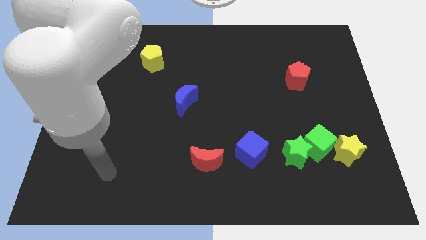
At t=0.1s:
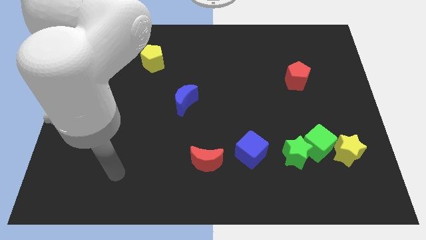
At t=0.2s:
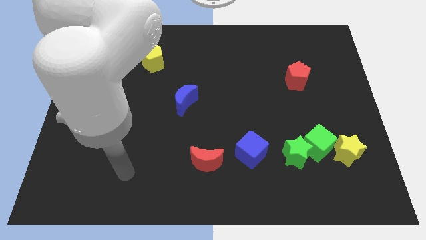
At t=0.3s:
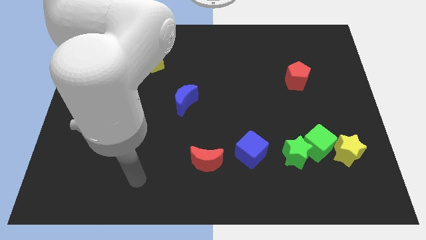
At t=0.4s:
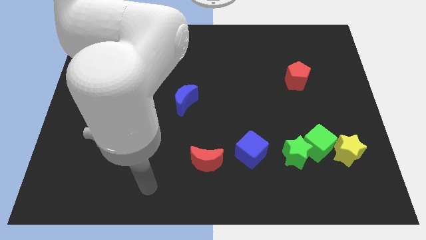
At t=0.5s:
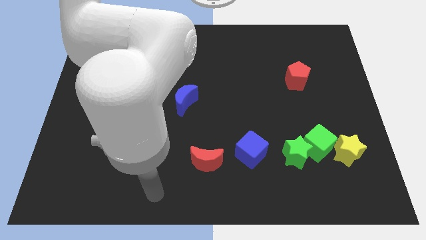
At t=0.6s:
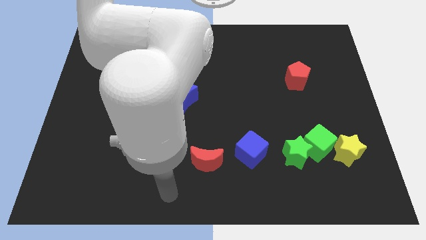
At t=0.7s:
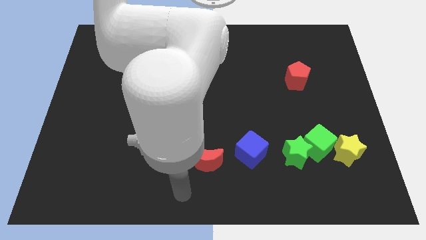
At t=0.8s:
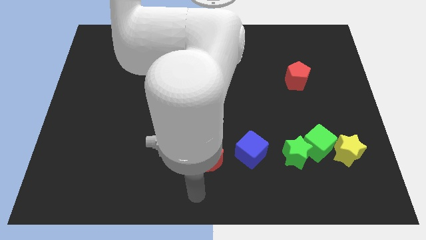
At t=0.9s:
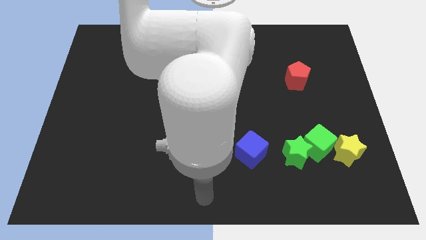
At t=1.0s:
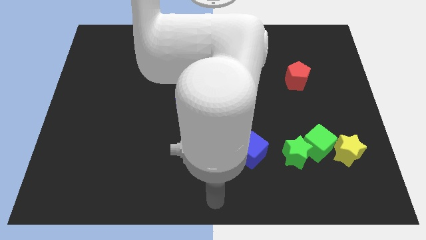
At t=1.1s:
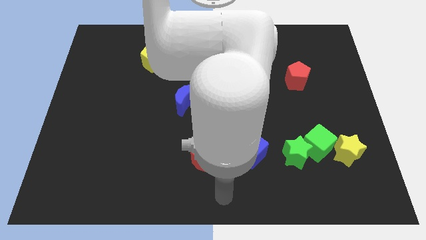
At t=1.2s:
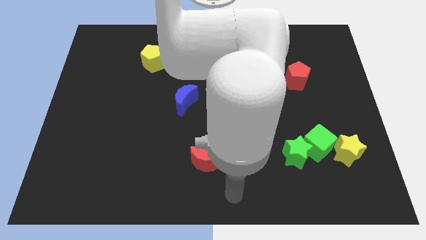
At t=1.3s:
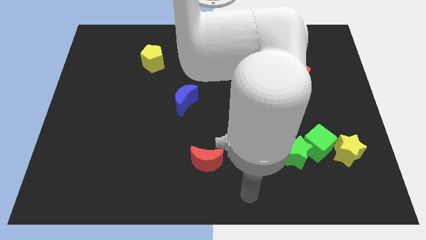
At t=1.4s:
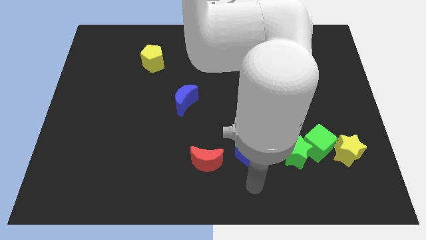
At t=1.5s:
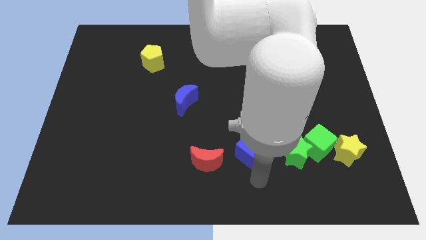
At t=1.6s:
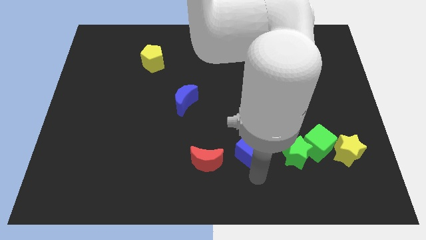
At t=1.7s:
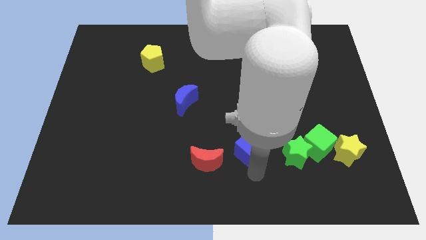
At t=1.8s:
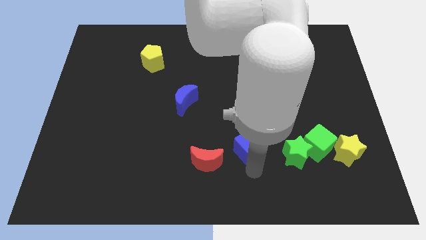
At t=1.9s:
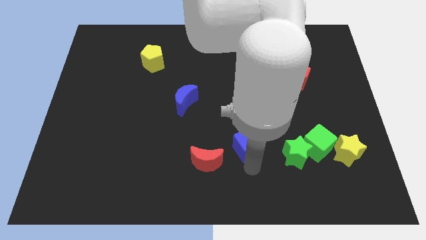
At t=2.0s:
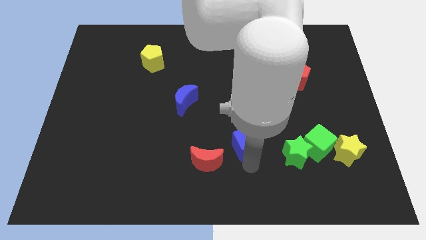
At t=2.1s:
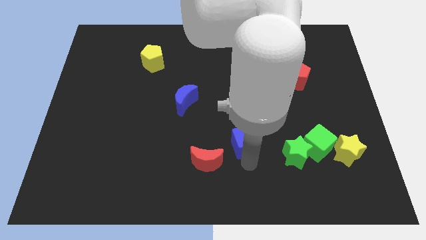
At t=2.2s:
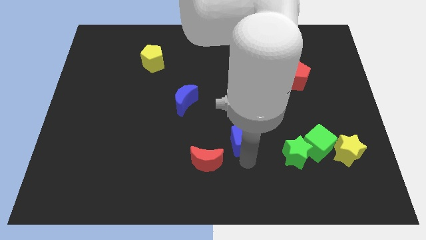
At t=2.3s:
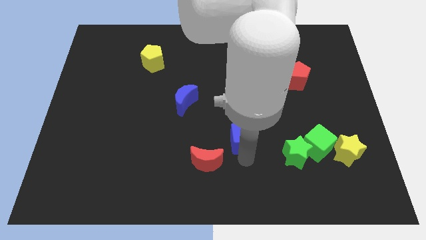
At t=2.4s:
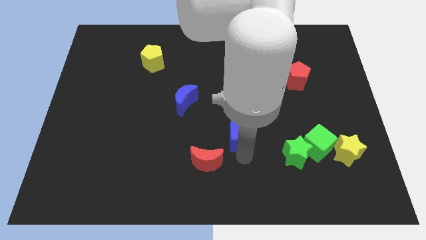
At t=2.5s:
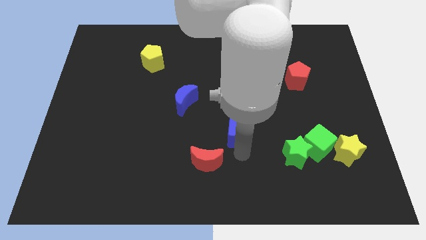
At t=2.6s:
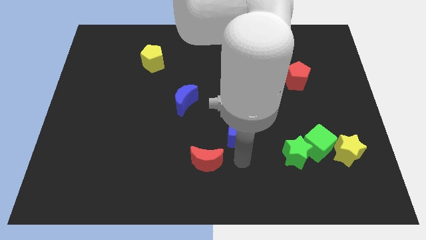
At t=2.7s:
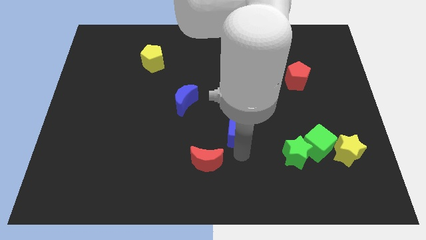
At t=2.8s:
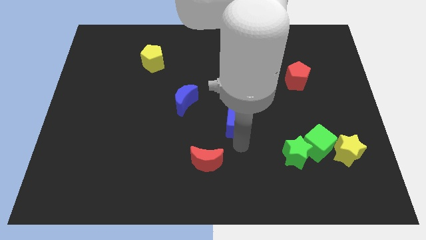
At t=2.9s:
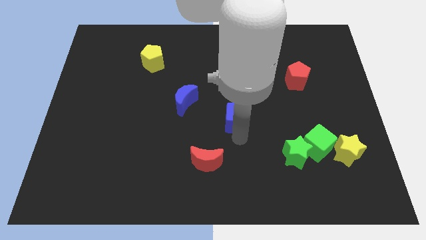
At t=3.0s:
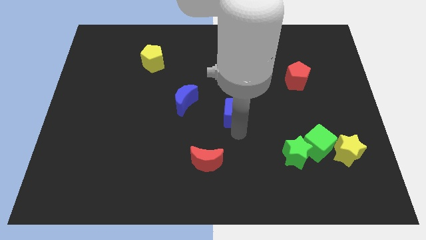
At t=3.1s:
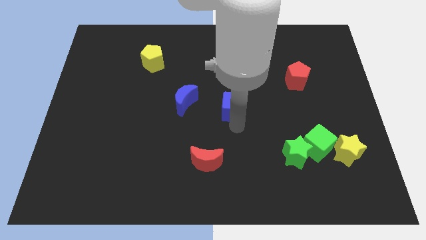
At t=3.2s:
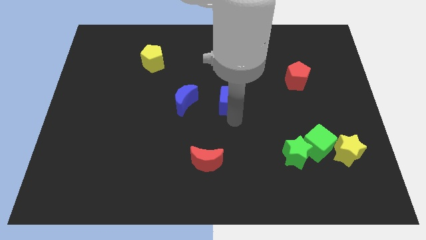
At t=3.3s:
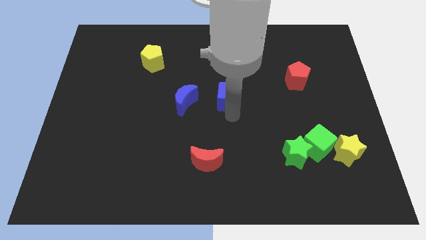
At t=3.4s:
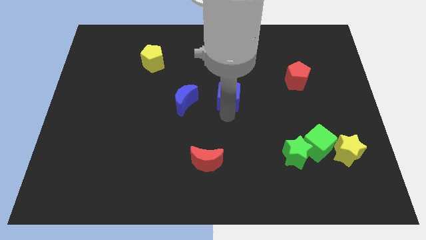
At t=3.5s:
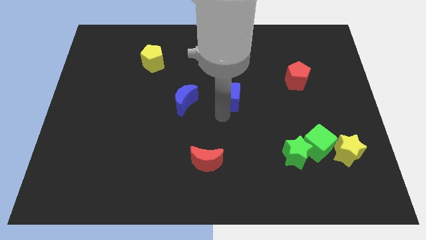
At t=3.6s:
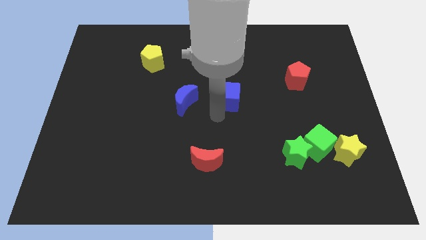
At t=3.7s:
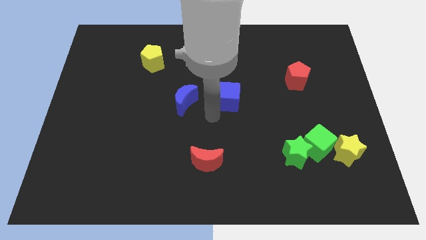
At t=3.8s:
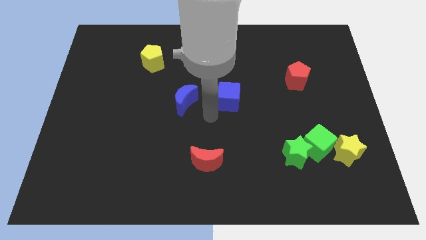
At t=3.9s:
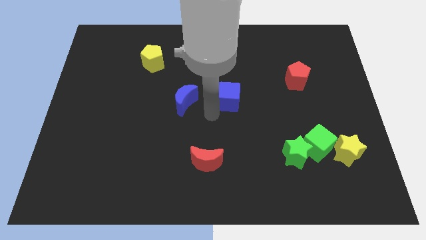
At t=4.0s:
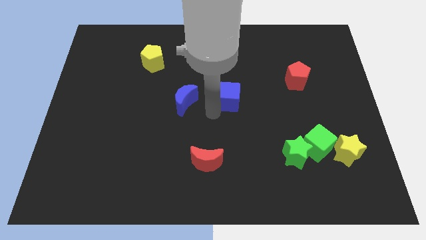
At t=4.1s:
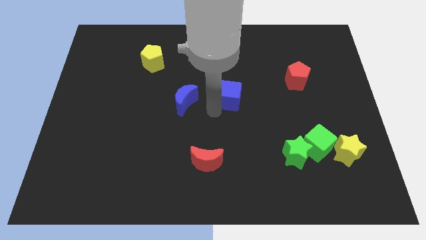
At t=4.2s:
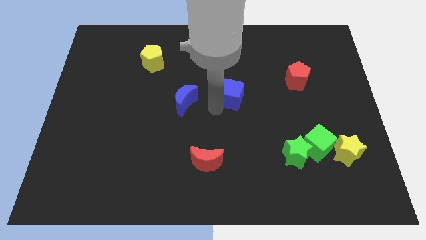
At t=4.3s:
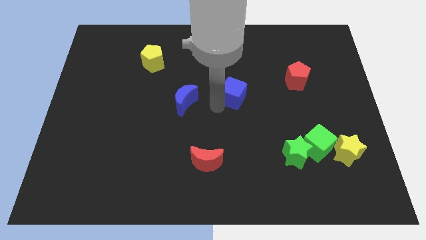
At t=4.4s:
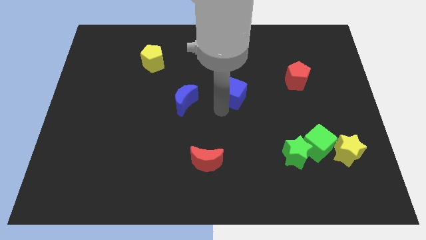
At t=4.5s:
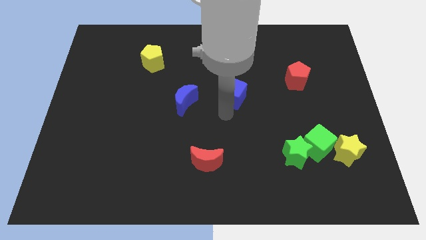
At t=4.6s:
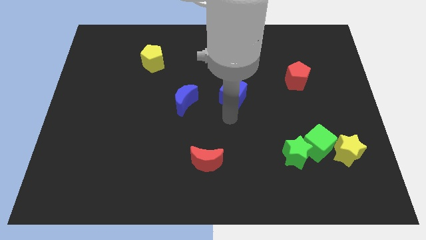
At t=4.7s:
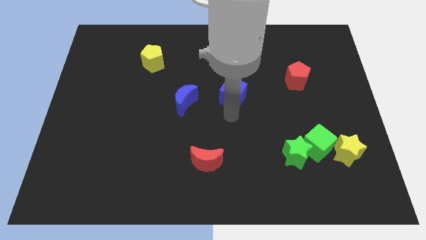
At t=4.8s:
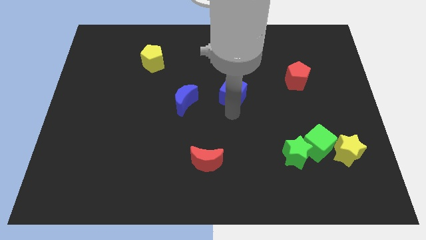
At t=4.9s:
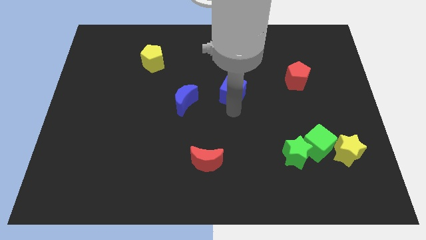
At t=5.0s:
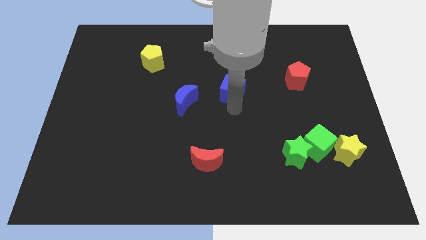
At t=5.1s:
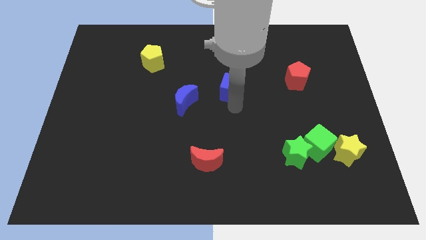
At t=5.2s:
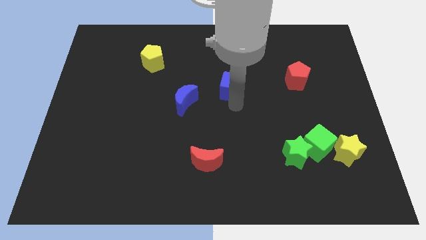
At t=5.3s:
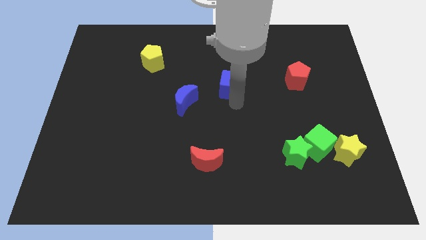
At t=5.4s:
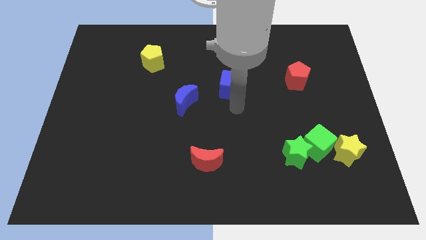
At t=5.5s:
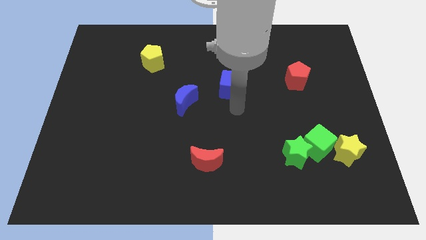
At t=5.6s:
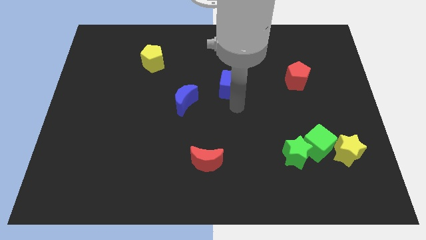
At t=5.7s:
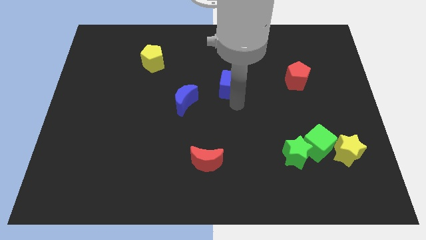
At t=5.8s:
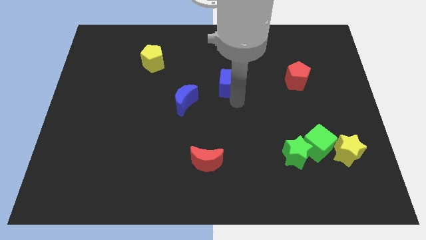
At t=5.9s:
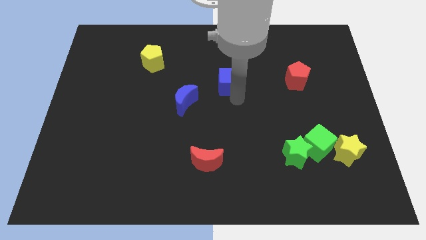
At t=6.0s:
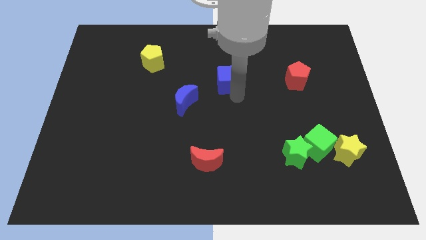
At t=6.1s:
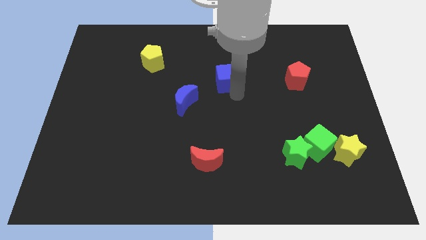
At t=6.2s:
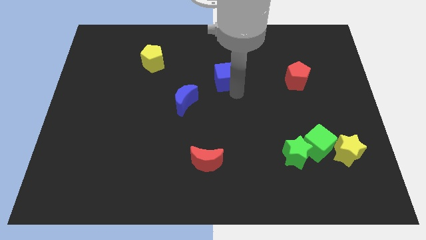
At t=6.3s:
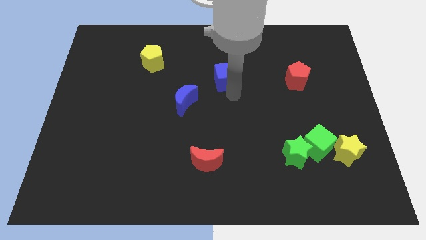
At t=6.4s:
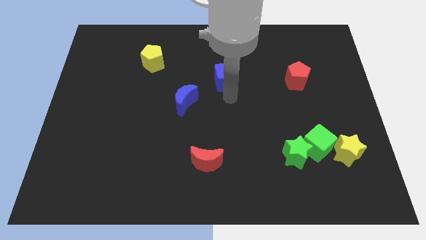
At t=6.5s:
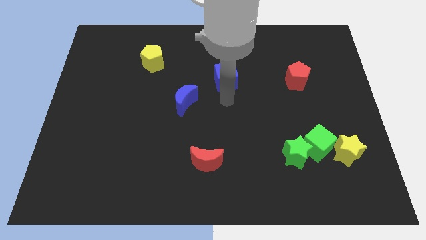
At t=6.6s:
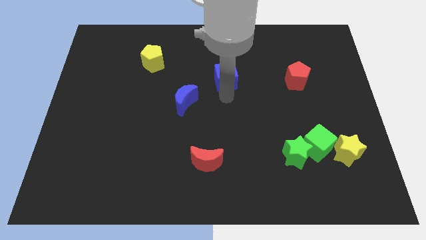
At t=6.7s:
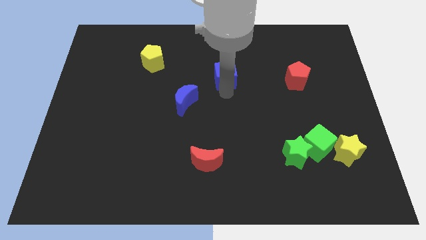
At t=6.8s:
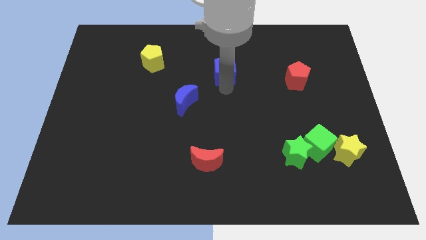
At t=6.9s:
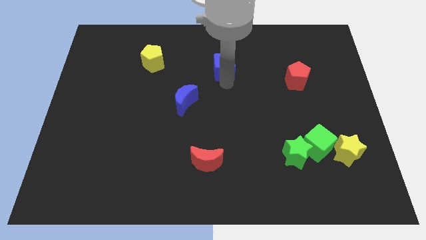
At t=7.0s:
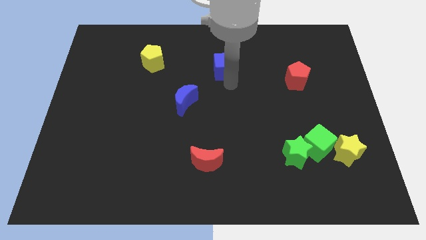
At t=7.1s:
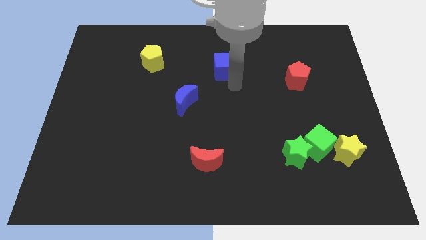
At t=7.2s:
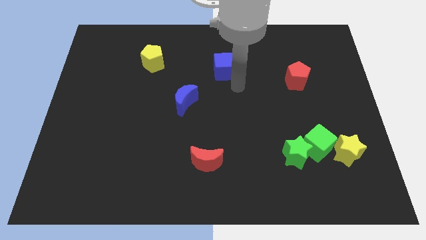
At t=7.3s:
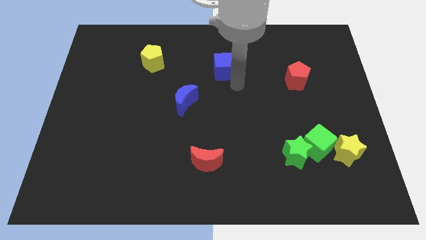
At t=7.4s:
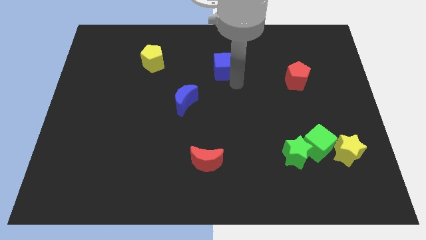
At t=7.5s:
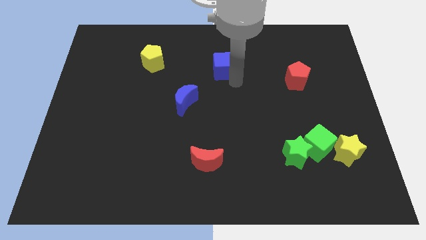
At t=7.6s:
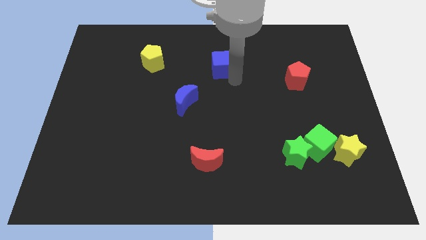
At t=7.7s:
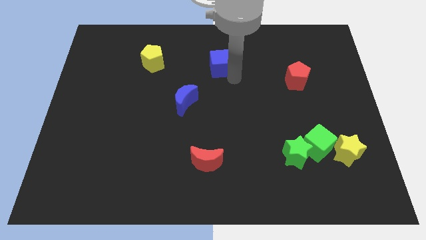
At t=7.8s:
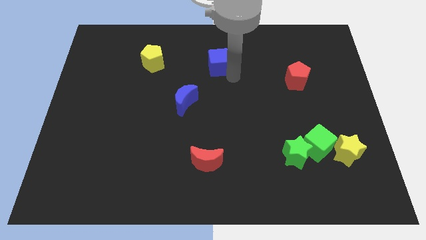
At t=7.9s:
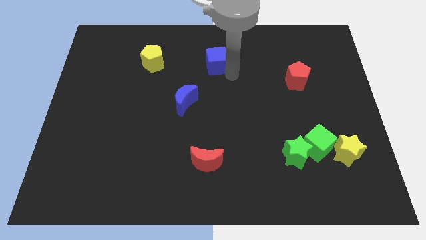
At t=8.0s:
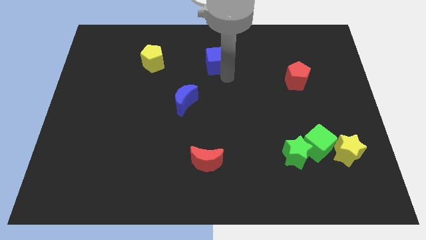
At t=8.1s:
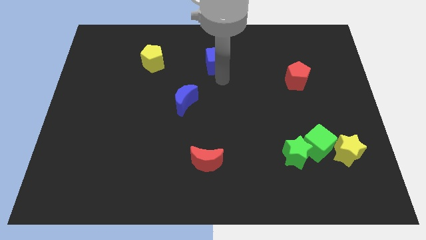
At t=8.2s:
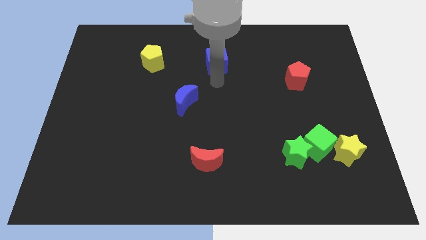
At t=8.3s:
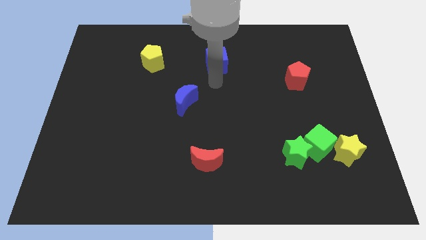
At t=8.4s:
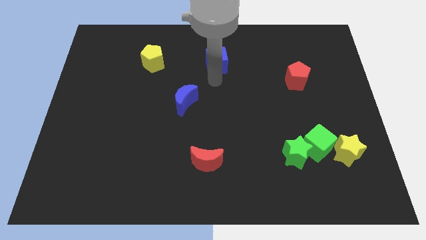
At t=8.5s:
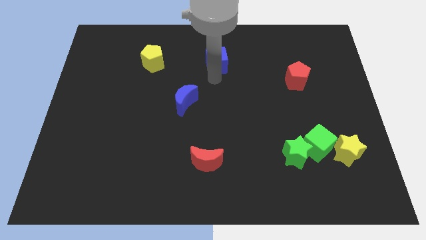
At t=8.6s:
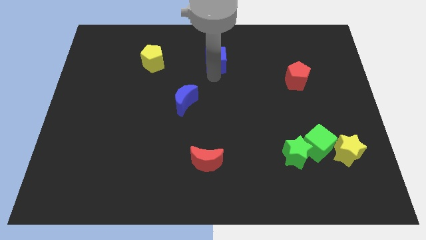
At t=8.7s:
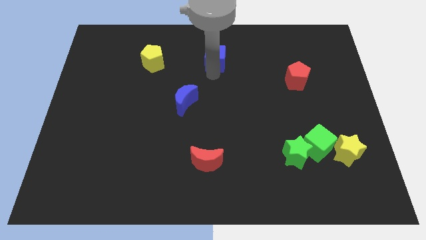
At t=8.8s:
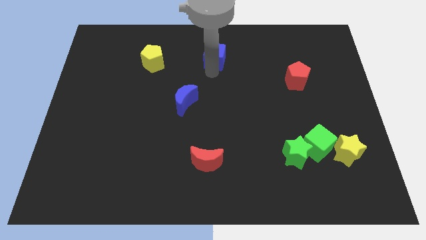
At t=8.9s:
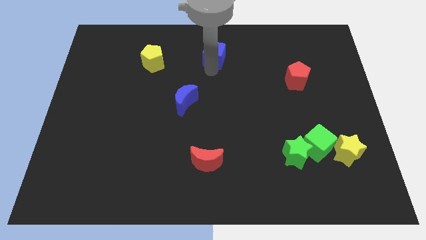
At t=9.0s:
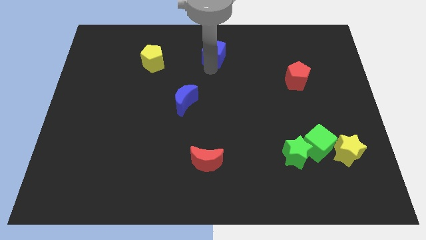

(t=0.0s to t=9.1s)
push the blue cube to the top side
